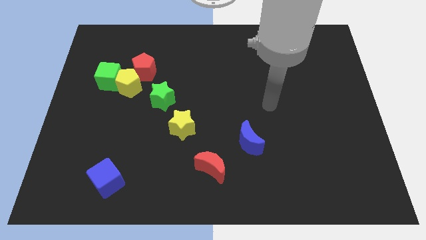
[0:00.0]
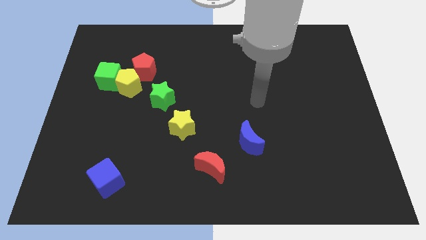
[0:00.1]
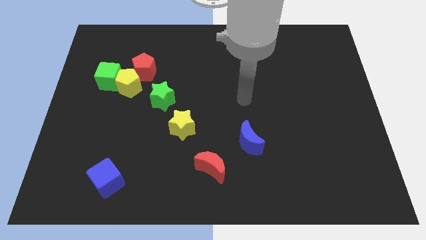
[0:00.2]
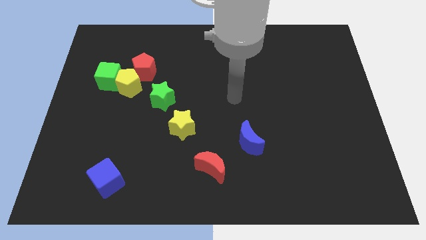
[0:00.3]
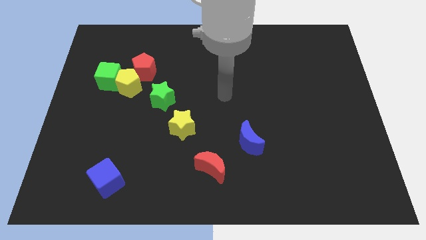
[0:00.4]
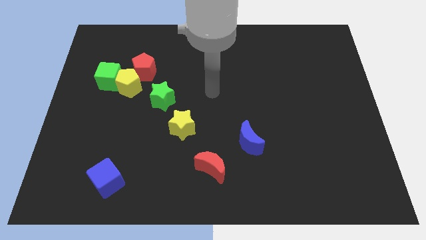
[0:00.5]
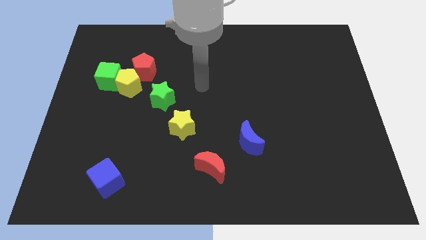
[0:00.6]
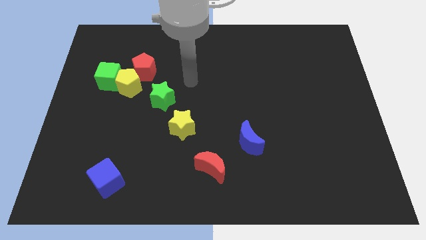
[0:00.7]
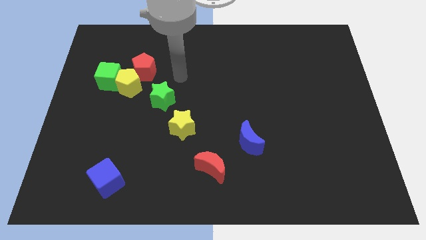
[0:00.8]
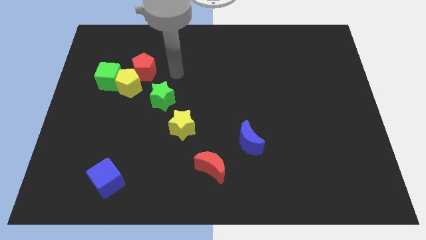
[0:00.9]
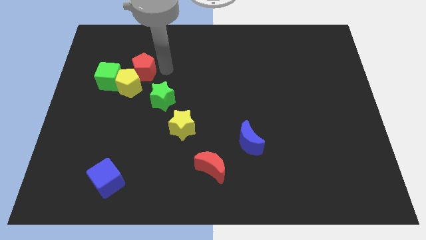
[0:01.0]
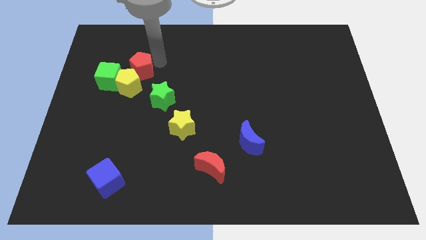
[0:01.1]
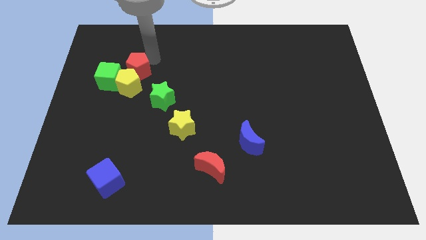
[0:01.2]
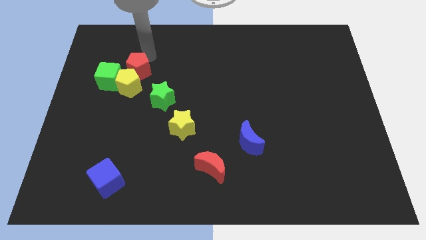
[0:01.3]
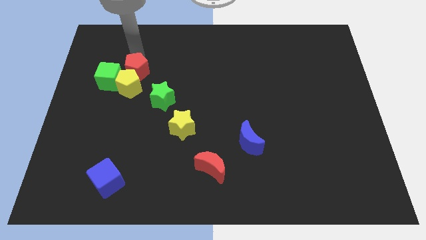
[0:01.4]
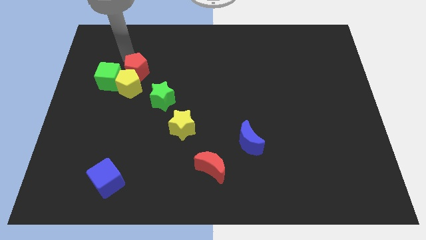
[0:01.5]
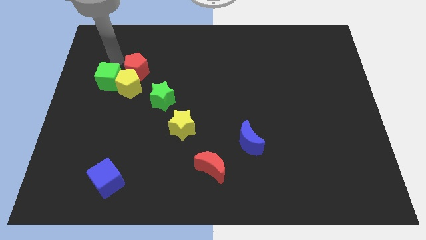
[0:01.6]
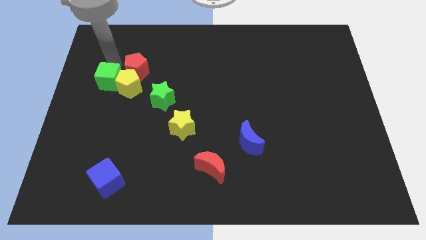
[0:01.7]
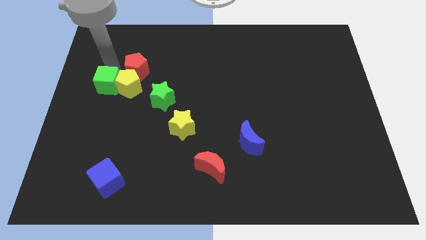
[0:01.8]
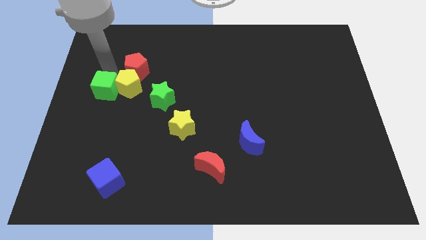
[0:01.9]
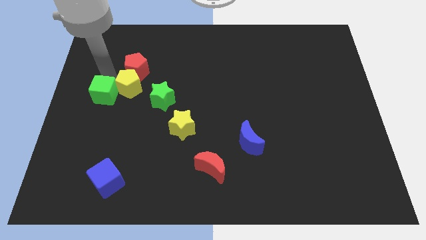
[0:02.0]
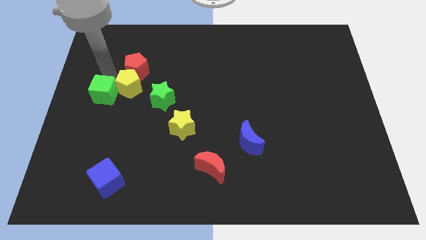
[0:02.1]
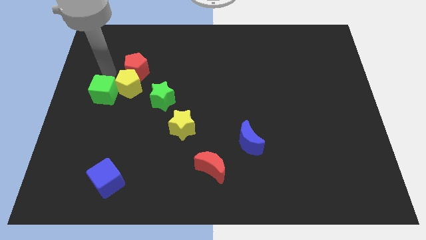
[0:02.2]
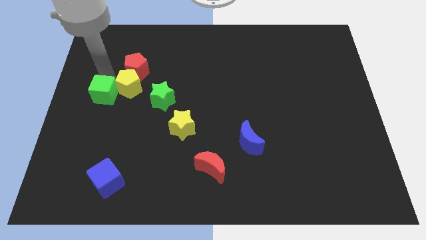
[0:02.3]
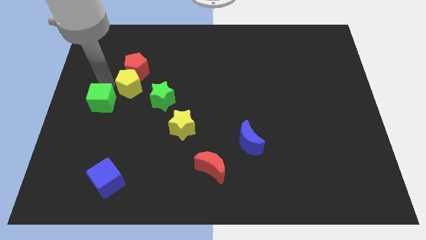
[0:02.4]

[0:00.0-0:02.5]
push the green cube down somewhat

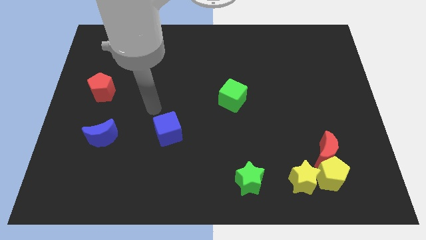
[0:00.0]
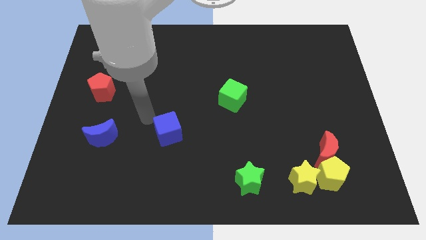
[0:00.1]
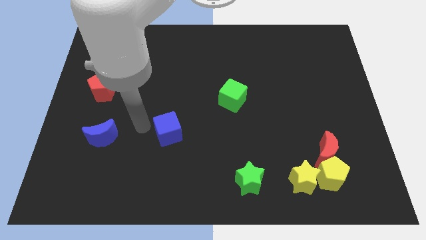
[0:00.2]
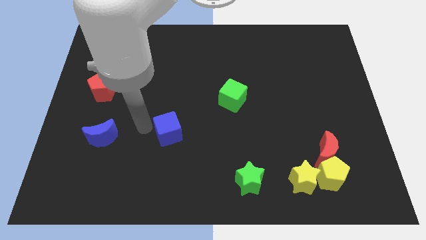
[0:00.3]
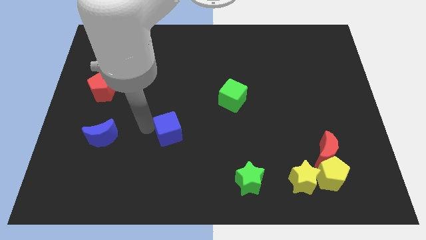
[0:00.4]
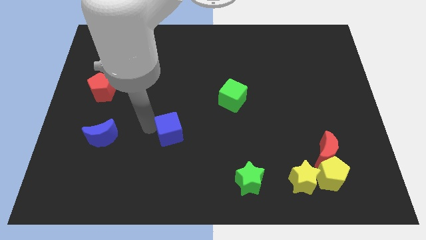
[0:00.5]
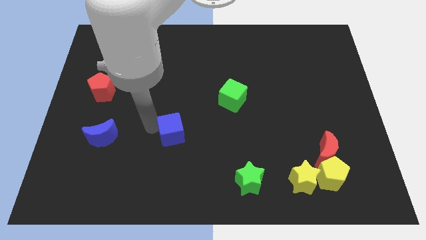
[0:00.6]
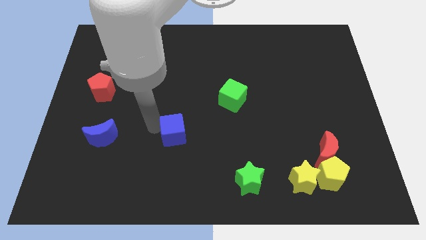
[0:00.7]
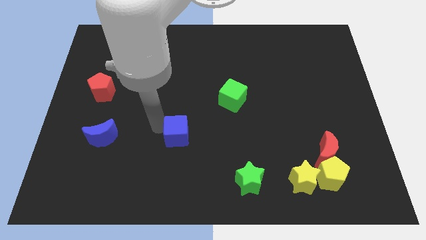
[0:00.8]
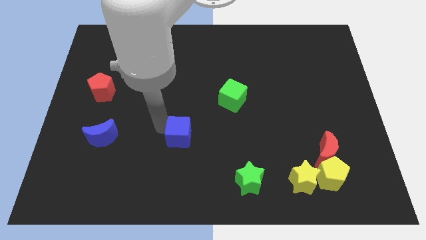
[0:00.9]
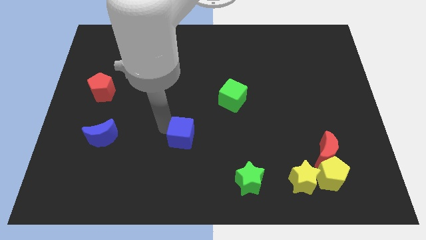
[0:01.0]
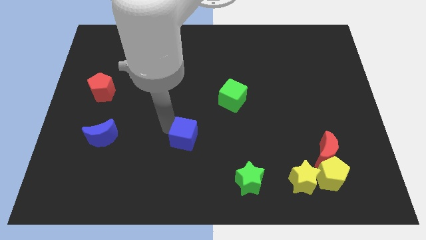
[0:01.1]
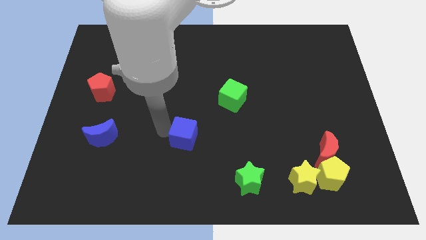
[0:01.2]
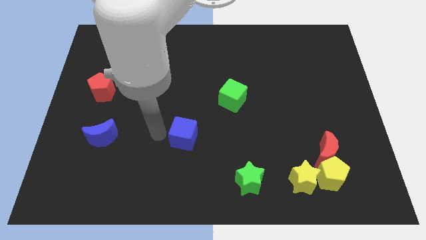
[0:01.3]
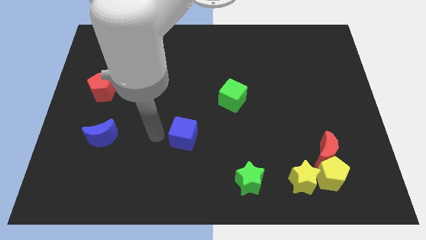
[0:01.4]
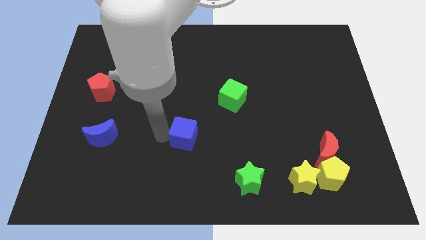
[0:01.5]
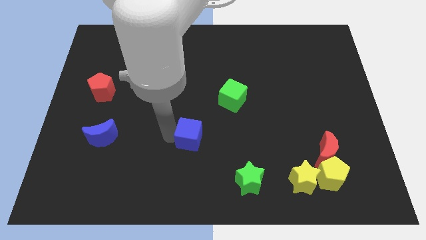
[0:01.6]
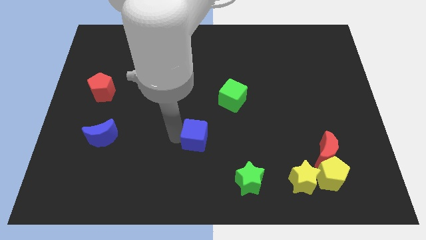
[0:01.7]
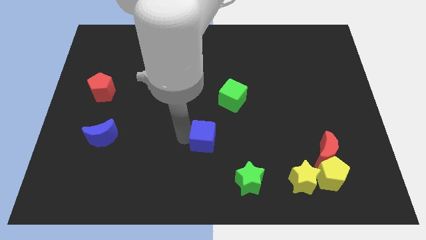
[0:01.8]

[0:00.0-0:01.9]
slightly slide the blue cube to the right

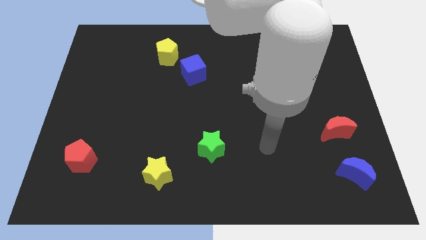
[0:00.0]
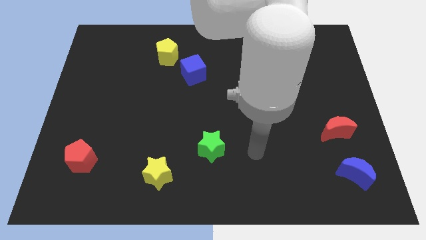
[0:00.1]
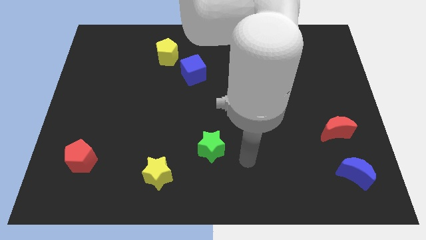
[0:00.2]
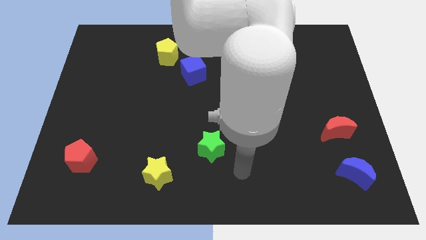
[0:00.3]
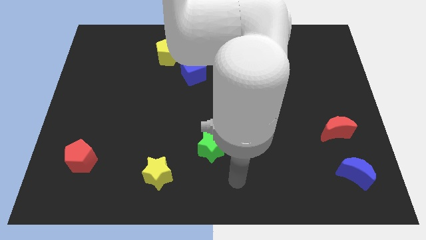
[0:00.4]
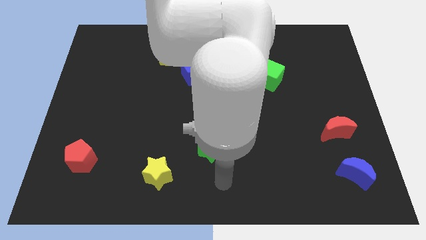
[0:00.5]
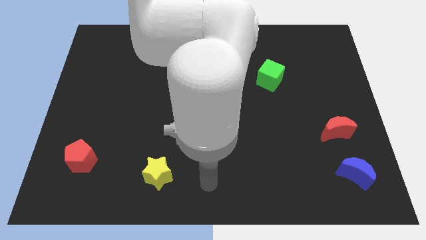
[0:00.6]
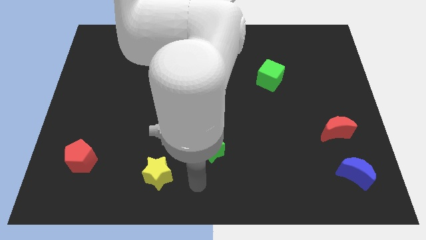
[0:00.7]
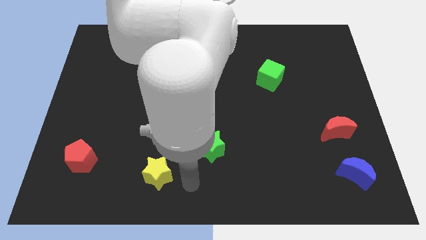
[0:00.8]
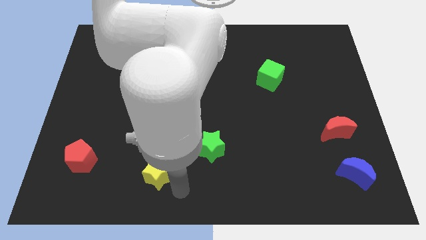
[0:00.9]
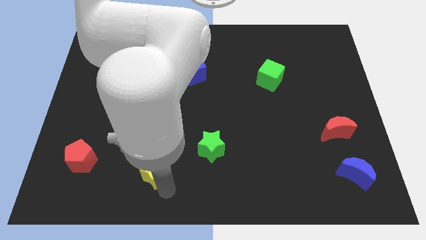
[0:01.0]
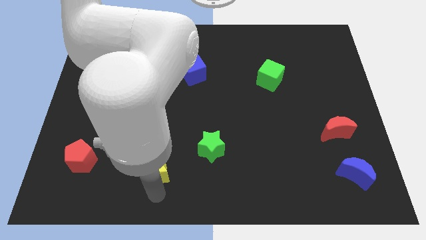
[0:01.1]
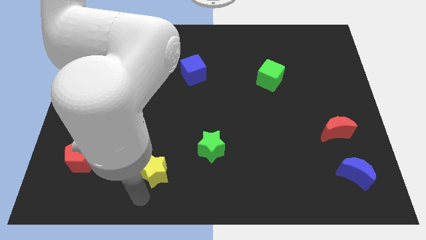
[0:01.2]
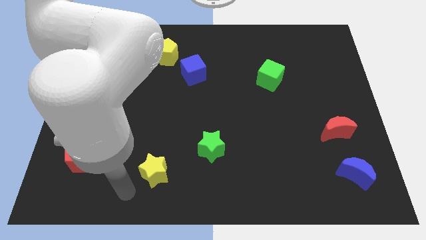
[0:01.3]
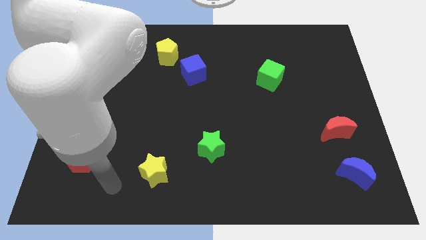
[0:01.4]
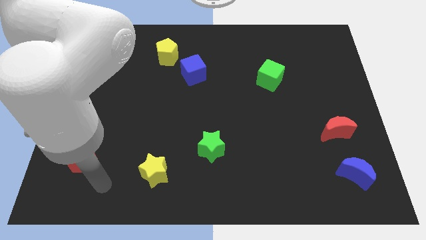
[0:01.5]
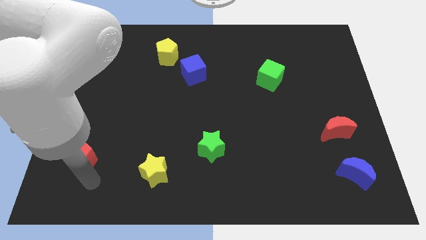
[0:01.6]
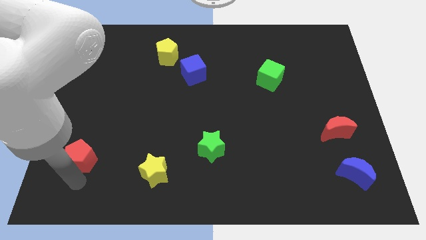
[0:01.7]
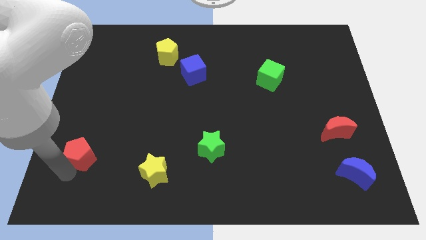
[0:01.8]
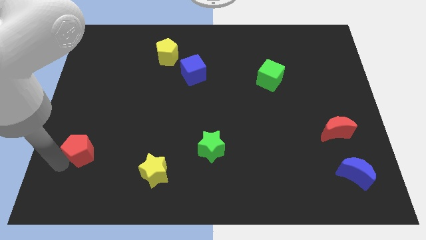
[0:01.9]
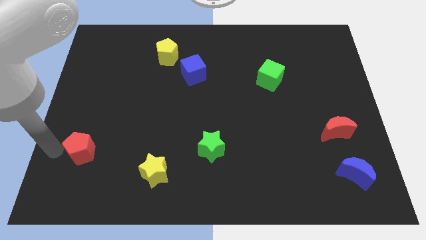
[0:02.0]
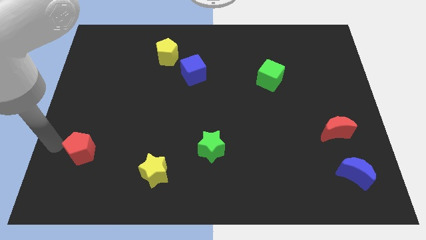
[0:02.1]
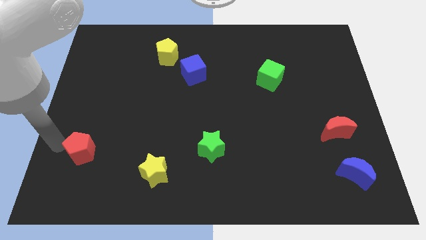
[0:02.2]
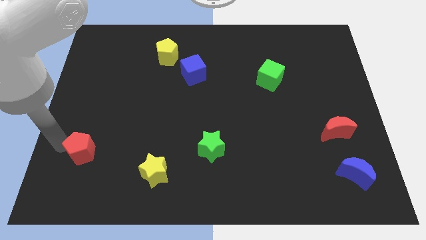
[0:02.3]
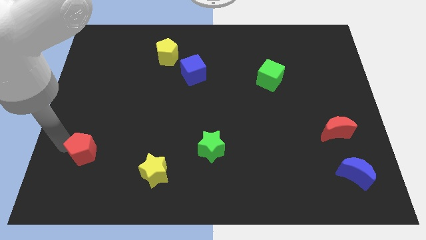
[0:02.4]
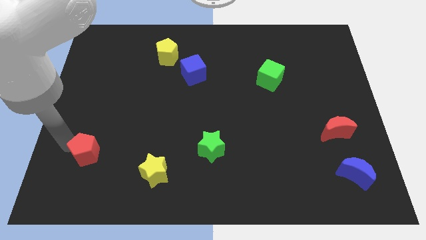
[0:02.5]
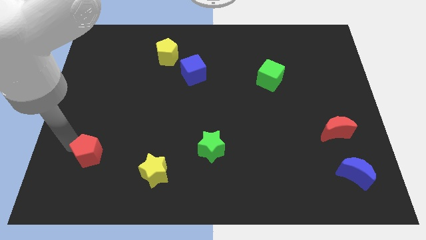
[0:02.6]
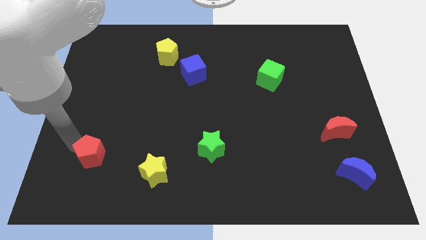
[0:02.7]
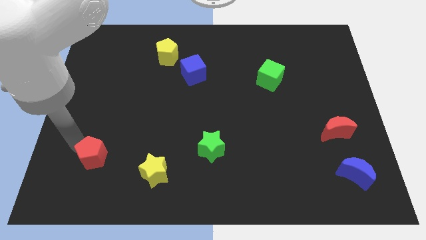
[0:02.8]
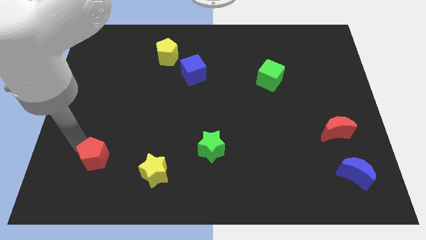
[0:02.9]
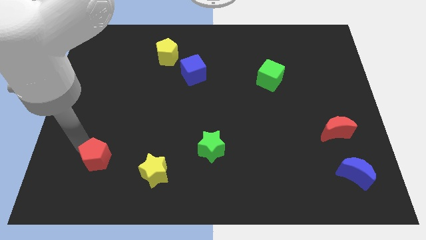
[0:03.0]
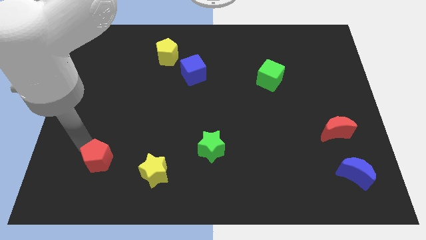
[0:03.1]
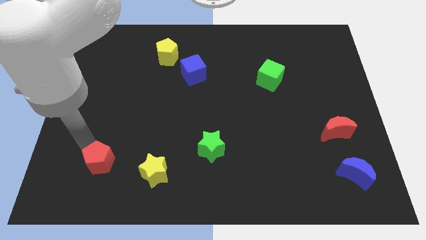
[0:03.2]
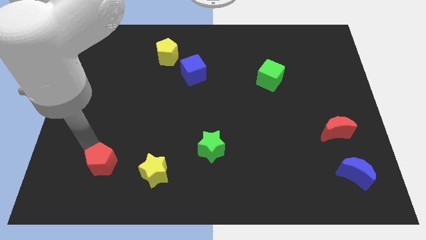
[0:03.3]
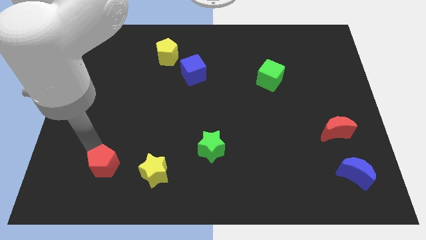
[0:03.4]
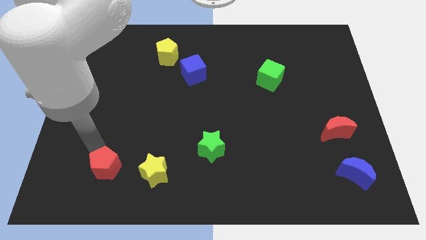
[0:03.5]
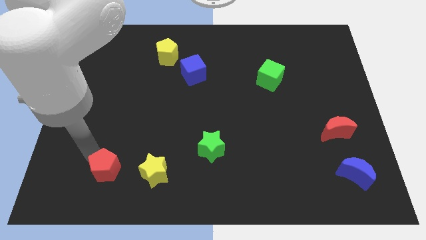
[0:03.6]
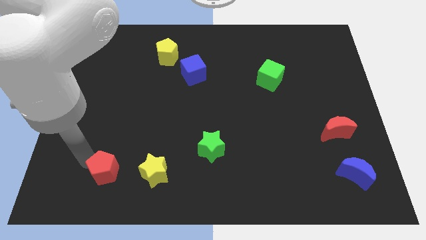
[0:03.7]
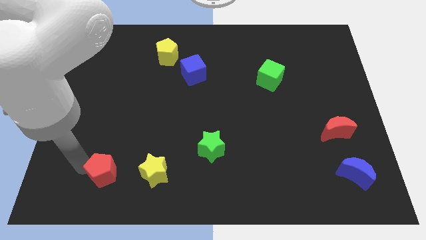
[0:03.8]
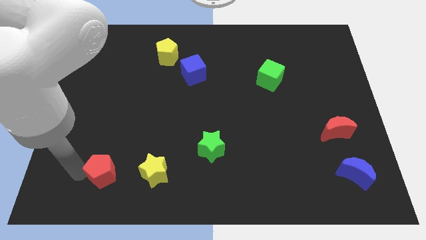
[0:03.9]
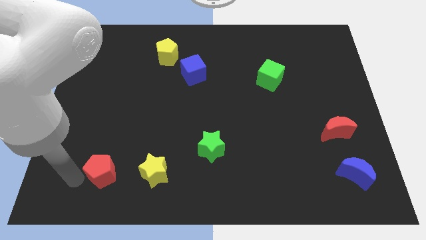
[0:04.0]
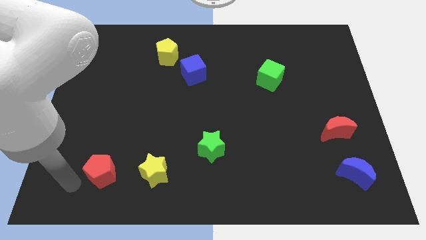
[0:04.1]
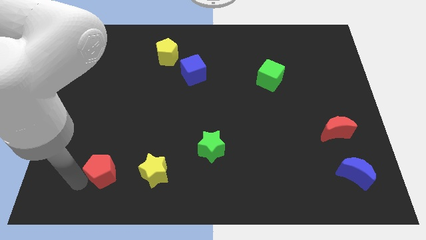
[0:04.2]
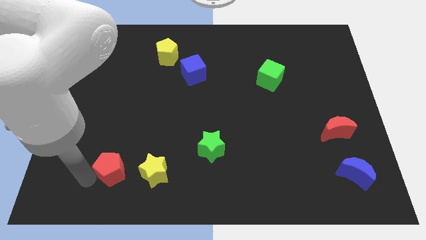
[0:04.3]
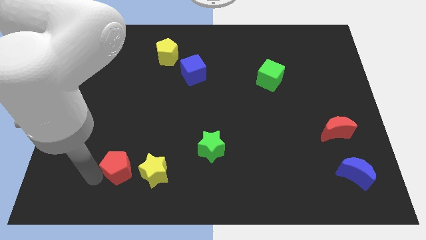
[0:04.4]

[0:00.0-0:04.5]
move the red pentagon a bit right
